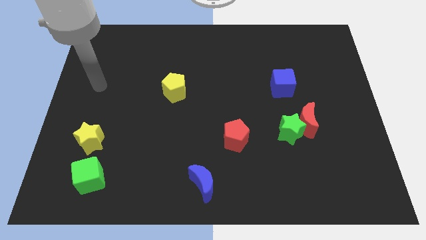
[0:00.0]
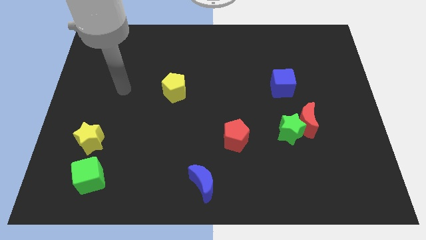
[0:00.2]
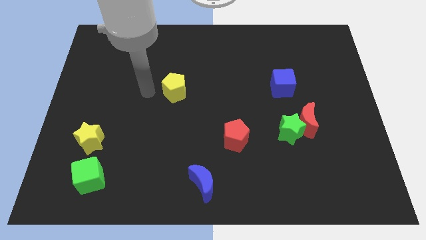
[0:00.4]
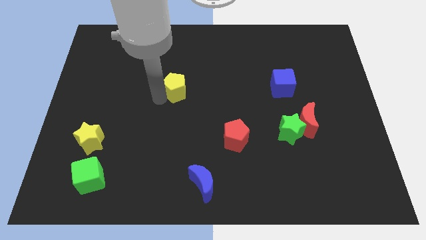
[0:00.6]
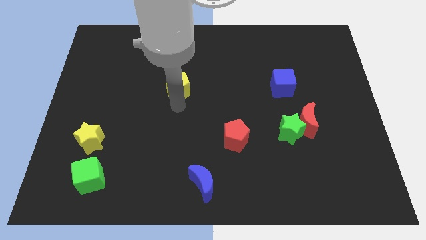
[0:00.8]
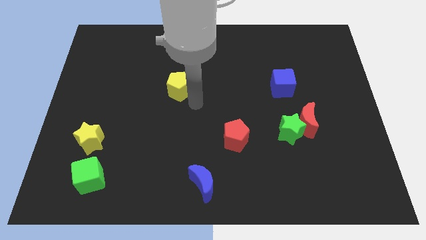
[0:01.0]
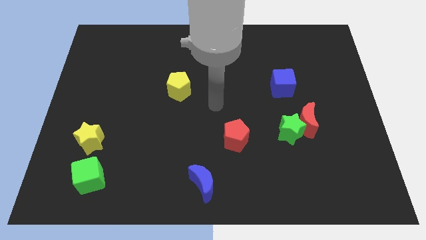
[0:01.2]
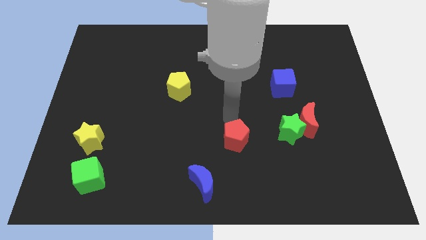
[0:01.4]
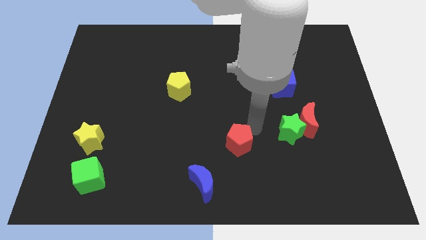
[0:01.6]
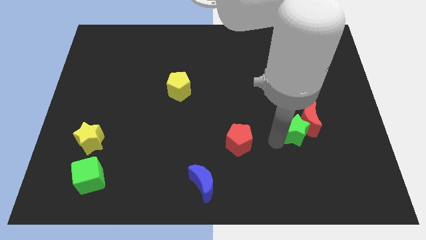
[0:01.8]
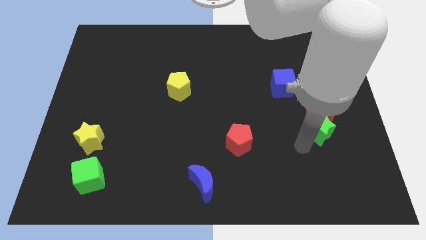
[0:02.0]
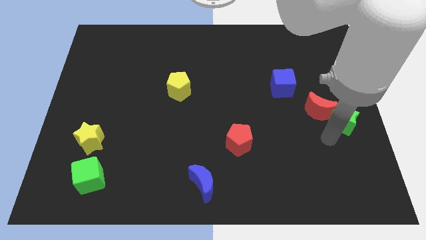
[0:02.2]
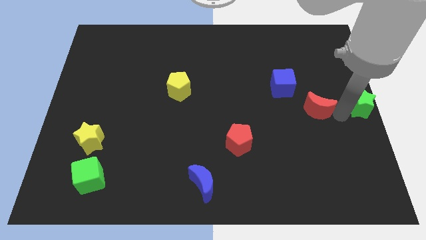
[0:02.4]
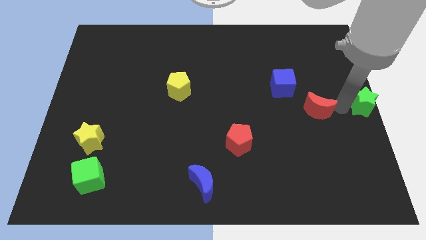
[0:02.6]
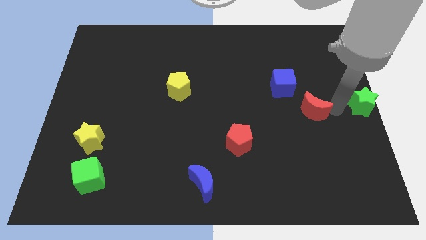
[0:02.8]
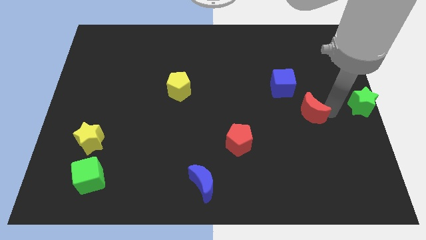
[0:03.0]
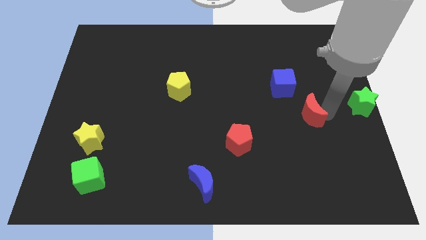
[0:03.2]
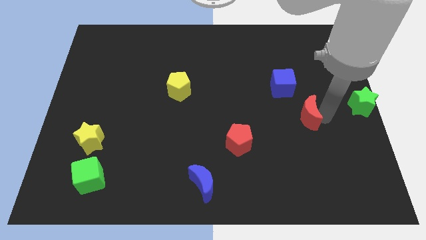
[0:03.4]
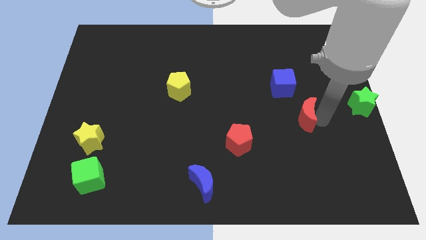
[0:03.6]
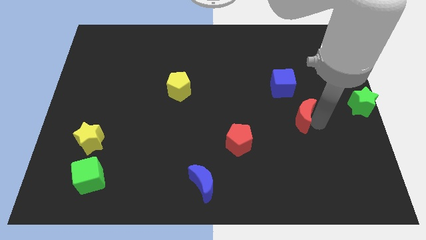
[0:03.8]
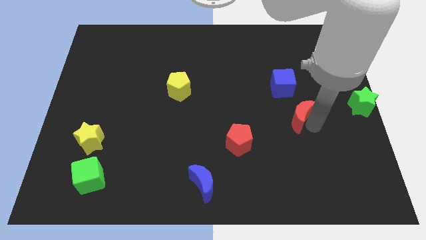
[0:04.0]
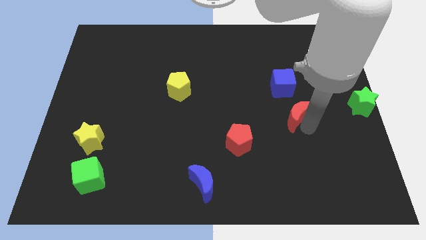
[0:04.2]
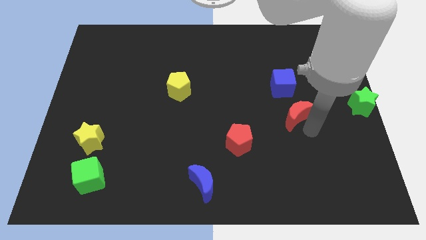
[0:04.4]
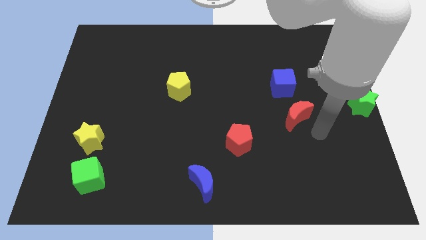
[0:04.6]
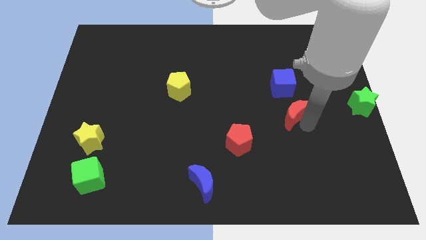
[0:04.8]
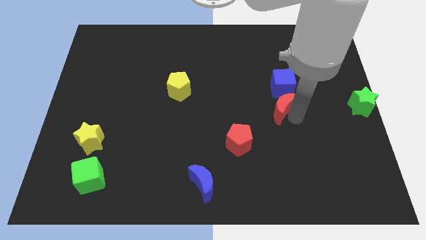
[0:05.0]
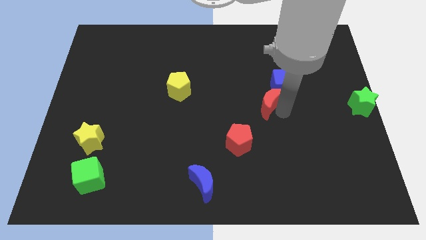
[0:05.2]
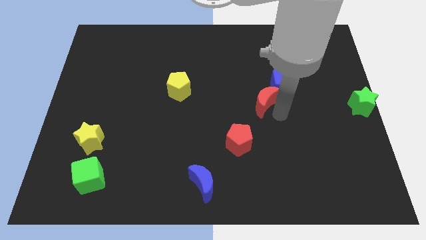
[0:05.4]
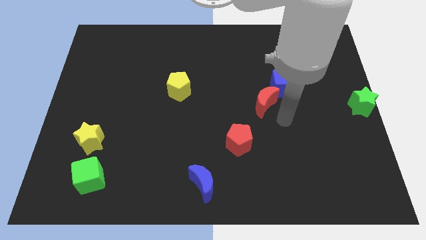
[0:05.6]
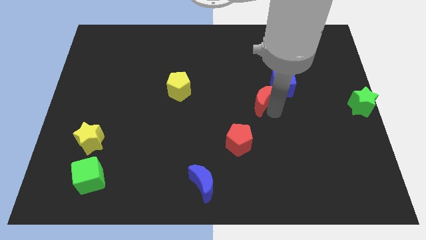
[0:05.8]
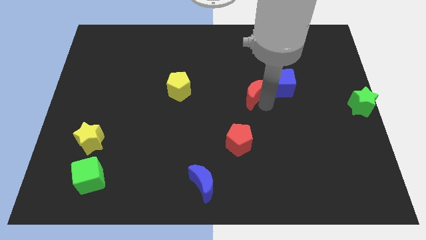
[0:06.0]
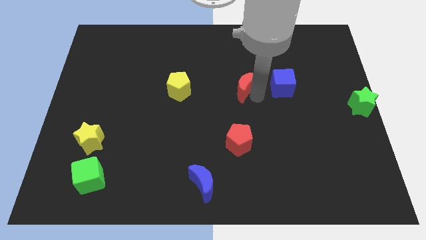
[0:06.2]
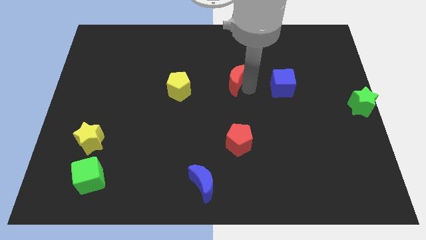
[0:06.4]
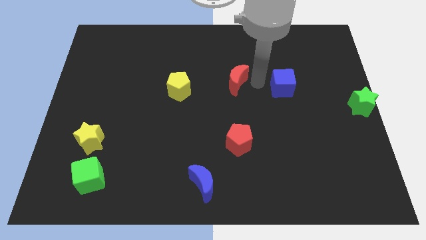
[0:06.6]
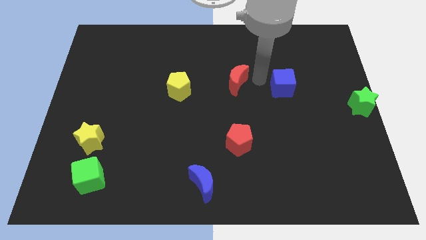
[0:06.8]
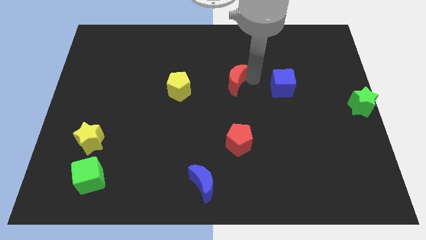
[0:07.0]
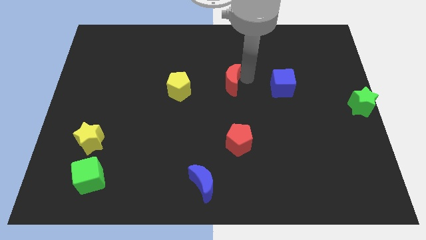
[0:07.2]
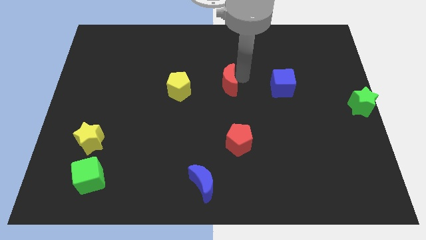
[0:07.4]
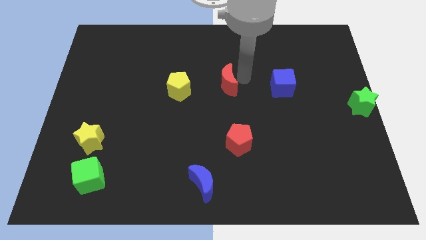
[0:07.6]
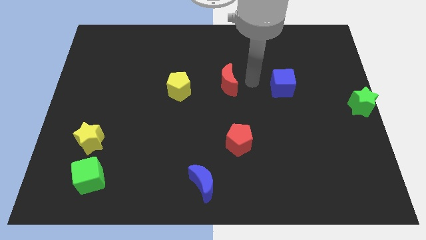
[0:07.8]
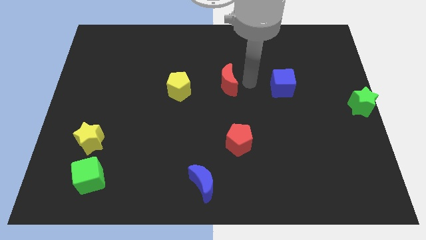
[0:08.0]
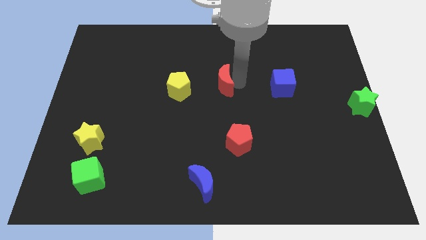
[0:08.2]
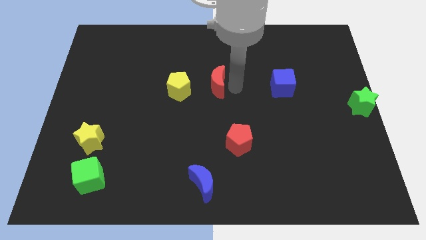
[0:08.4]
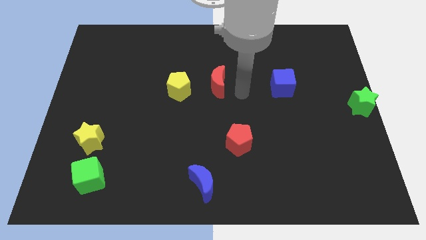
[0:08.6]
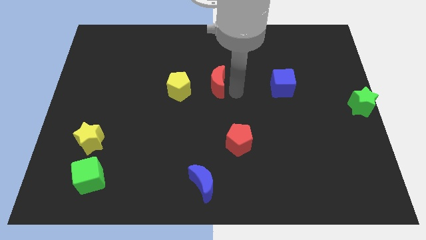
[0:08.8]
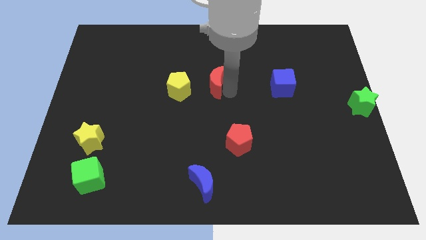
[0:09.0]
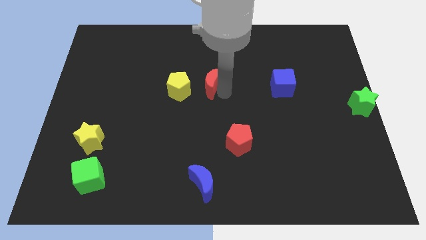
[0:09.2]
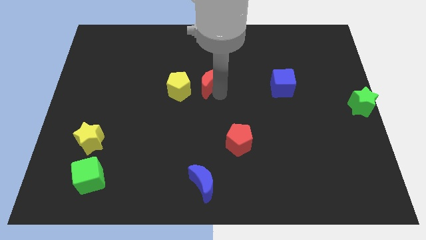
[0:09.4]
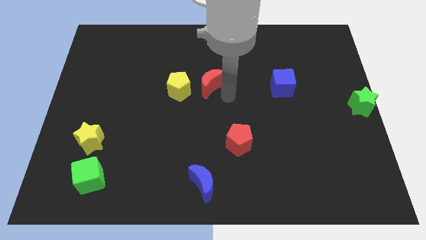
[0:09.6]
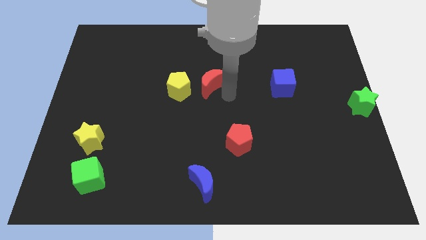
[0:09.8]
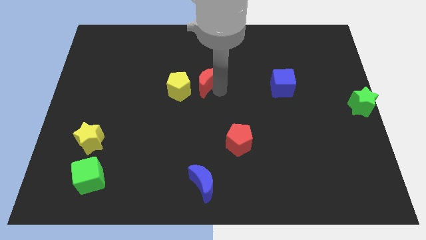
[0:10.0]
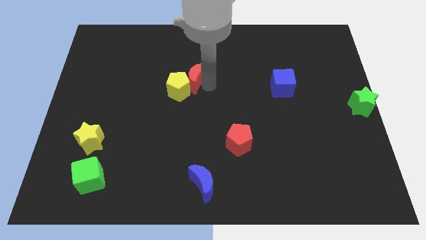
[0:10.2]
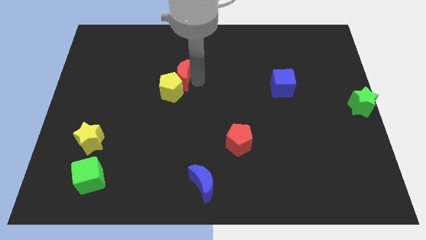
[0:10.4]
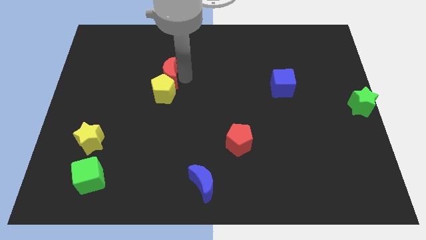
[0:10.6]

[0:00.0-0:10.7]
slide the red moon diagonally up and to the left of the yellow pentagon

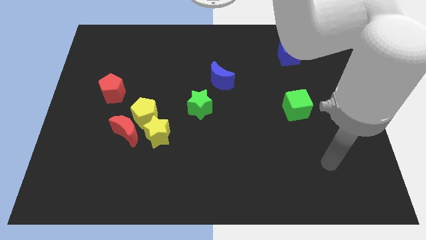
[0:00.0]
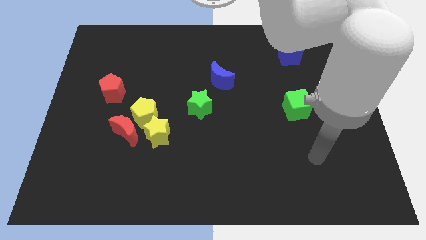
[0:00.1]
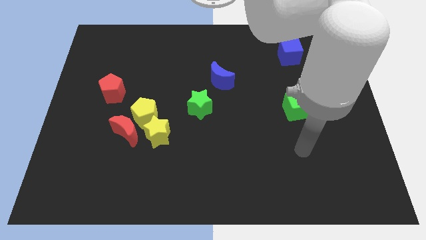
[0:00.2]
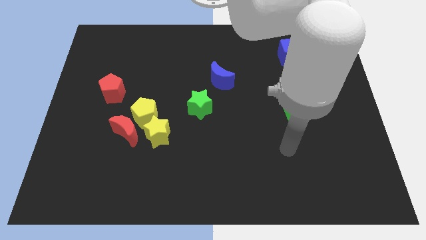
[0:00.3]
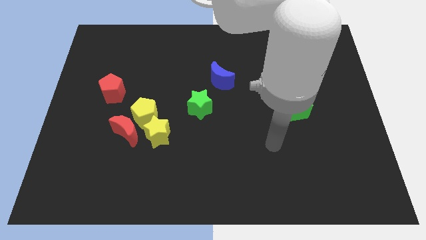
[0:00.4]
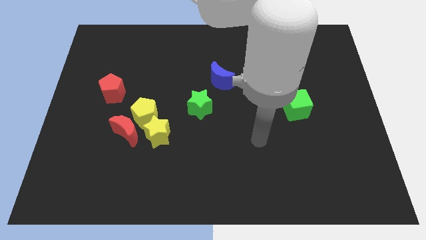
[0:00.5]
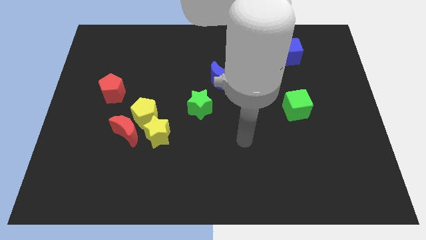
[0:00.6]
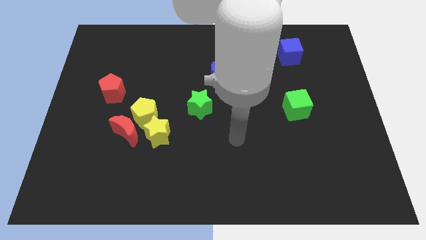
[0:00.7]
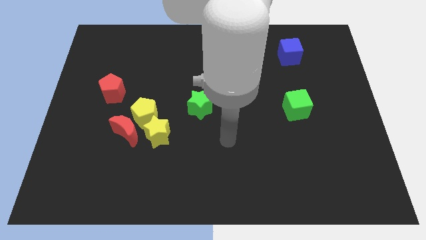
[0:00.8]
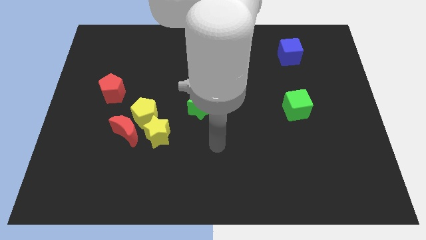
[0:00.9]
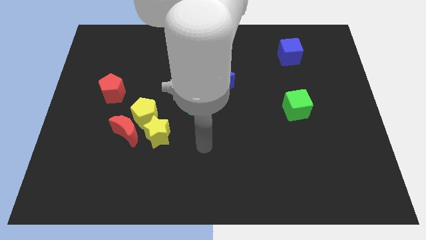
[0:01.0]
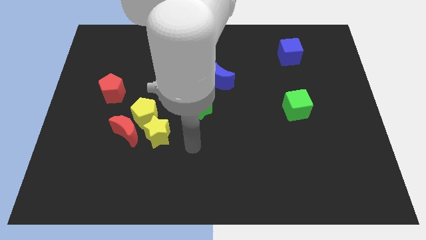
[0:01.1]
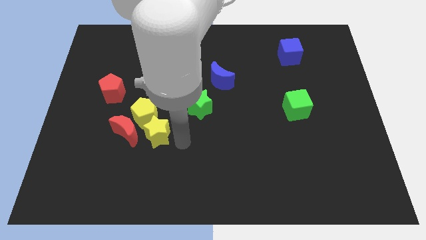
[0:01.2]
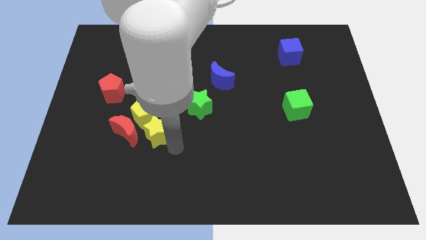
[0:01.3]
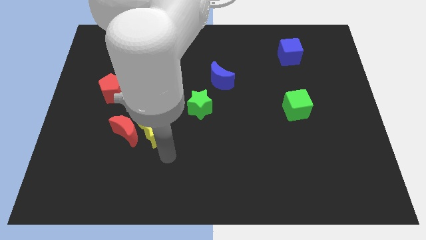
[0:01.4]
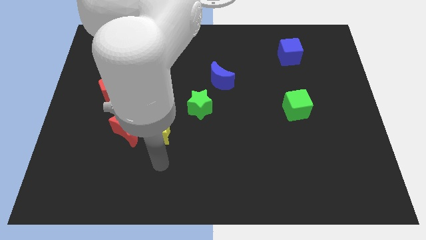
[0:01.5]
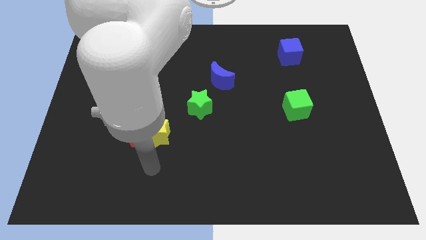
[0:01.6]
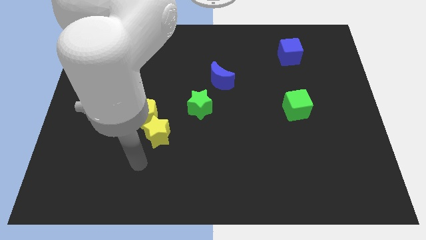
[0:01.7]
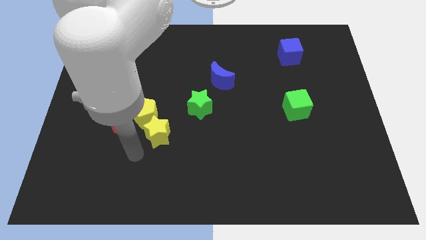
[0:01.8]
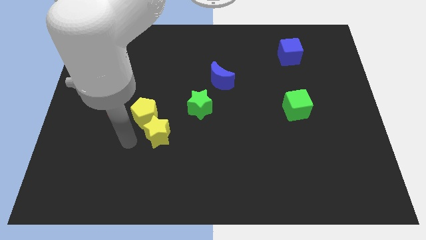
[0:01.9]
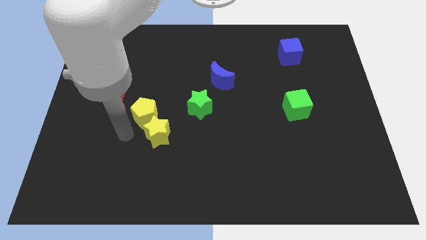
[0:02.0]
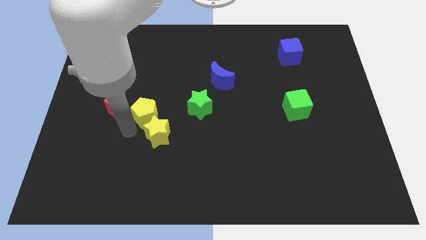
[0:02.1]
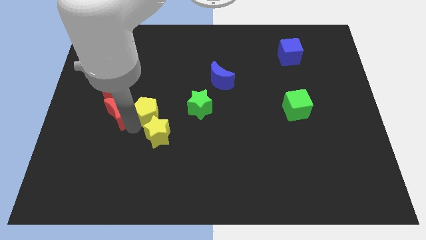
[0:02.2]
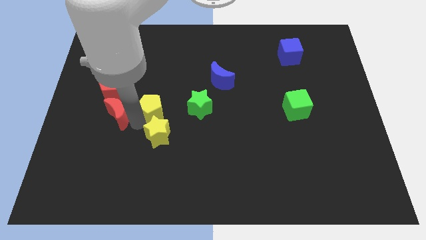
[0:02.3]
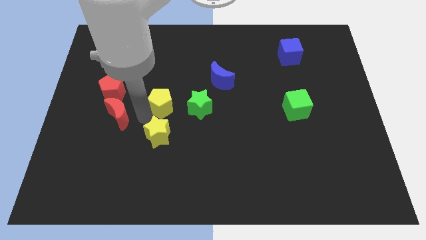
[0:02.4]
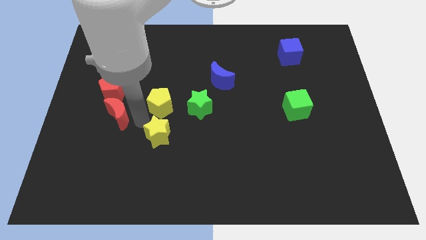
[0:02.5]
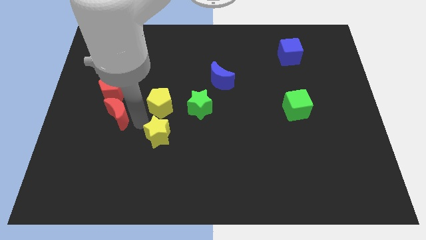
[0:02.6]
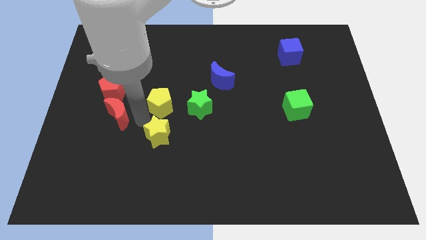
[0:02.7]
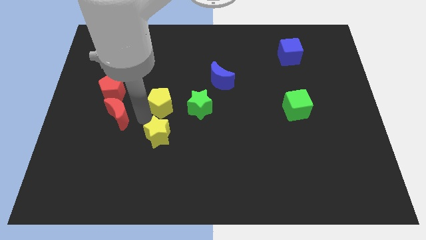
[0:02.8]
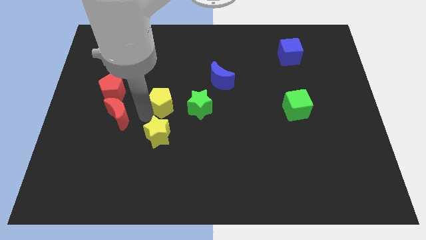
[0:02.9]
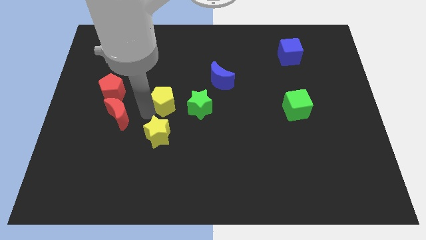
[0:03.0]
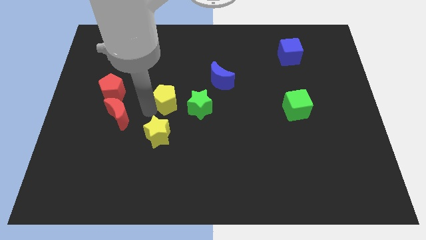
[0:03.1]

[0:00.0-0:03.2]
move the yellow pentagon diagonally up and to the left of the green star
